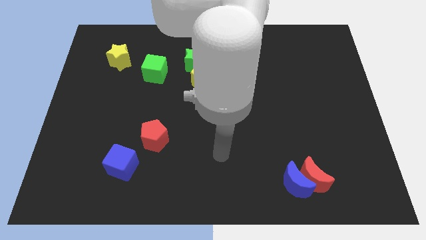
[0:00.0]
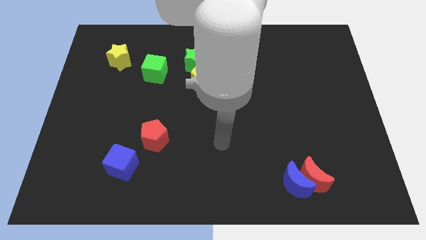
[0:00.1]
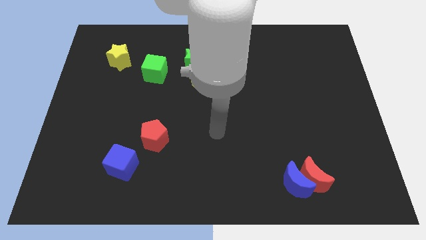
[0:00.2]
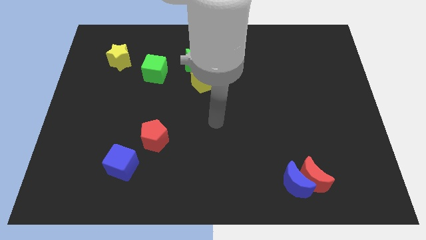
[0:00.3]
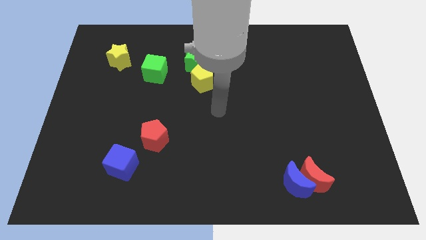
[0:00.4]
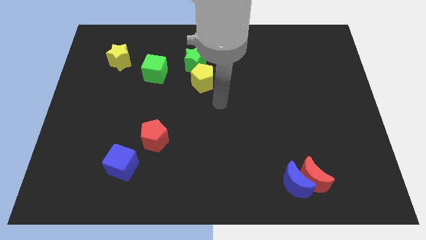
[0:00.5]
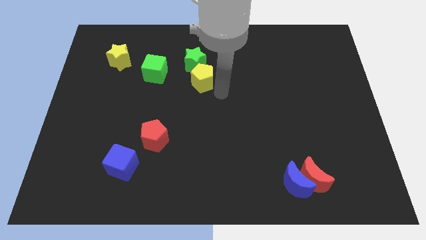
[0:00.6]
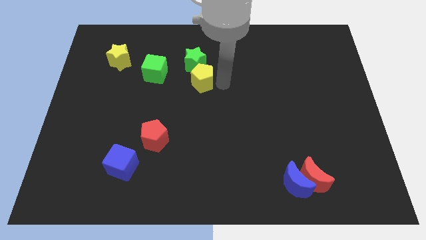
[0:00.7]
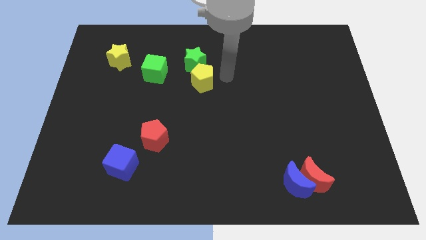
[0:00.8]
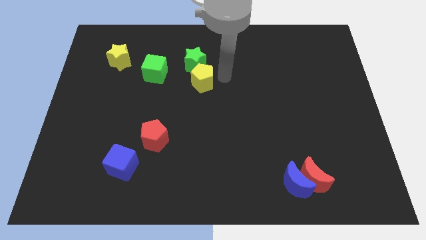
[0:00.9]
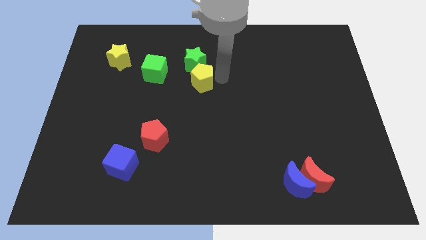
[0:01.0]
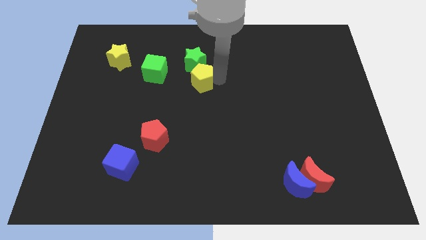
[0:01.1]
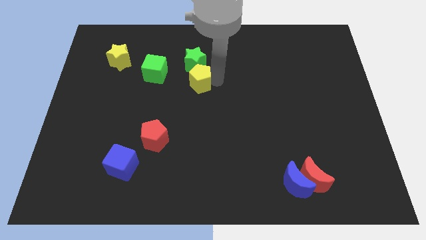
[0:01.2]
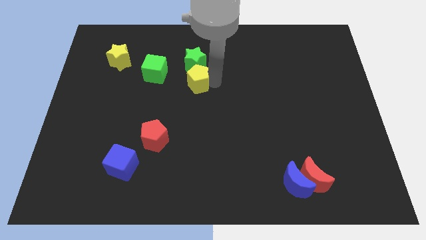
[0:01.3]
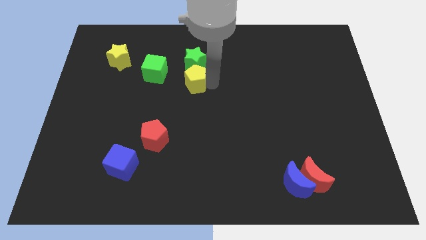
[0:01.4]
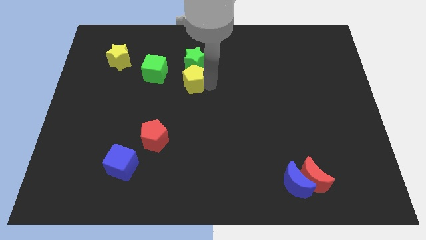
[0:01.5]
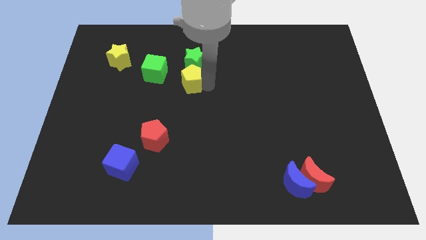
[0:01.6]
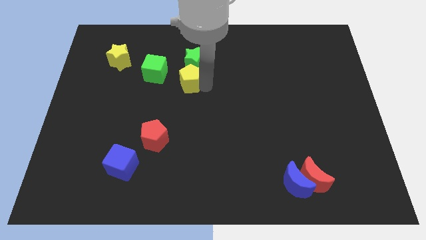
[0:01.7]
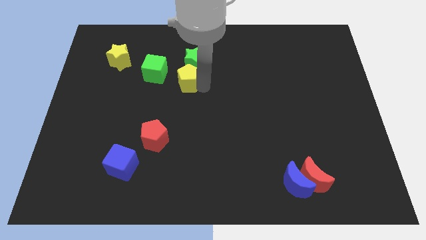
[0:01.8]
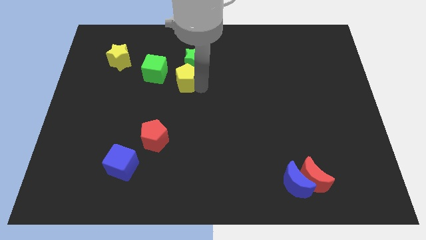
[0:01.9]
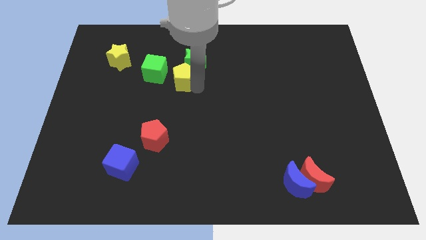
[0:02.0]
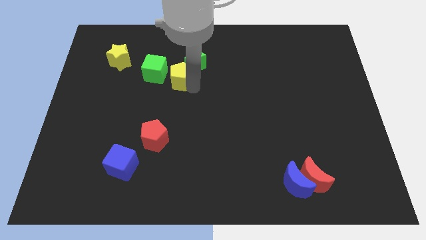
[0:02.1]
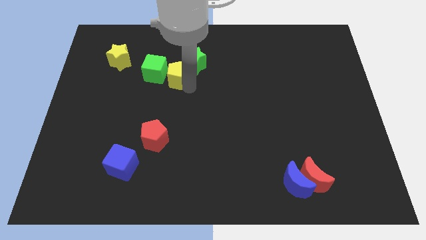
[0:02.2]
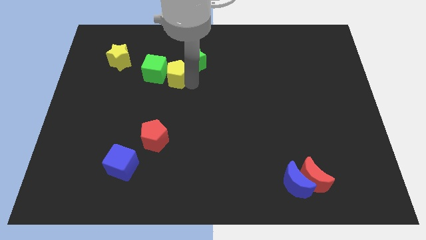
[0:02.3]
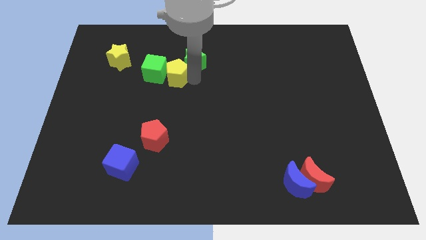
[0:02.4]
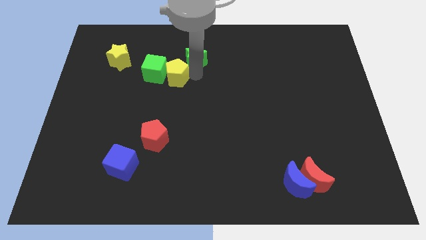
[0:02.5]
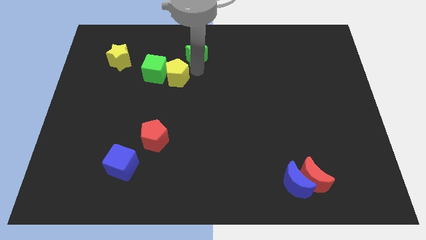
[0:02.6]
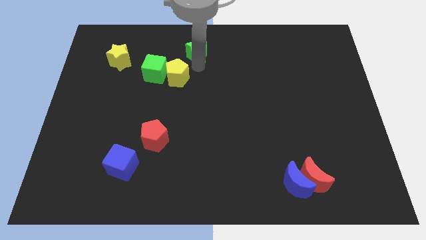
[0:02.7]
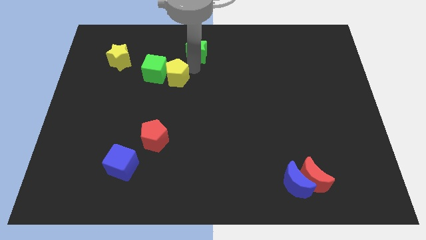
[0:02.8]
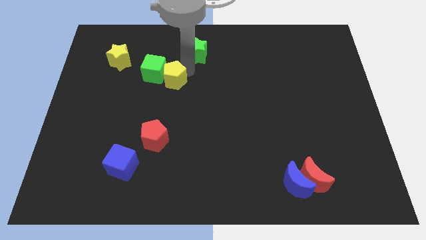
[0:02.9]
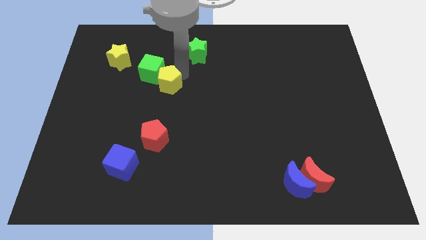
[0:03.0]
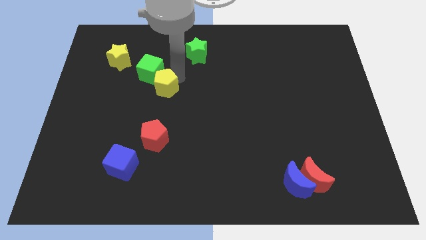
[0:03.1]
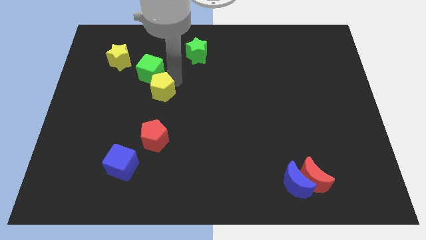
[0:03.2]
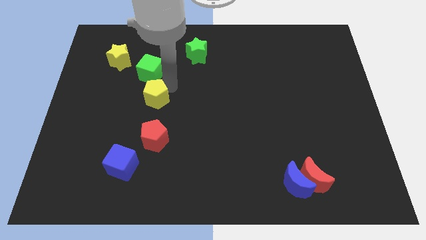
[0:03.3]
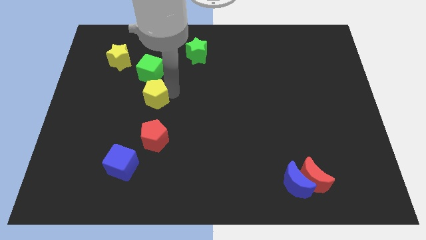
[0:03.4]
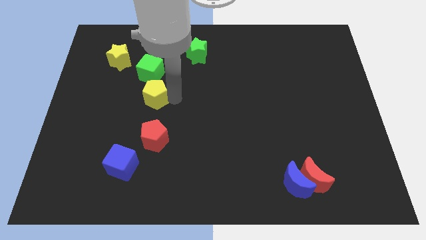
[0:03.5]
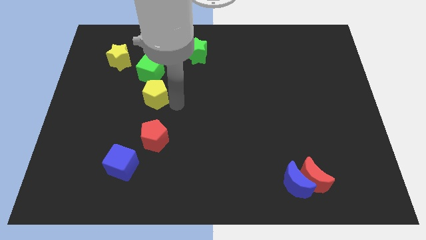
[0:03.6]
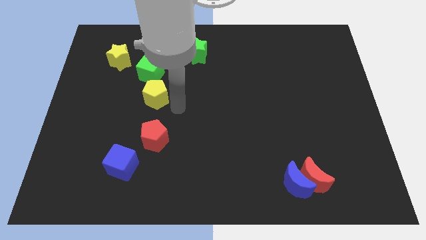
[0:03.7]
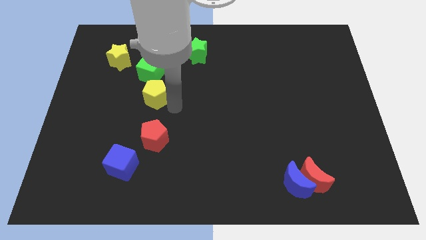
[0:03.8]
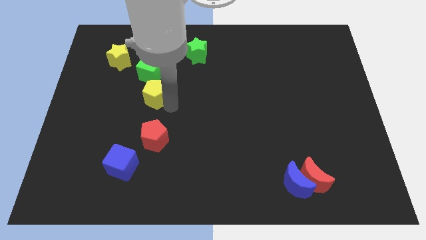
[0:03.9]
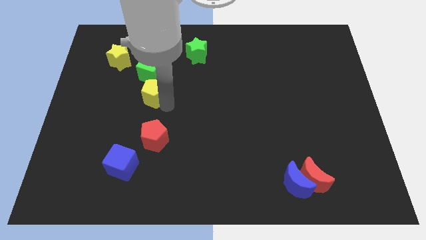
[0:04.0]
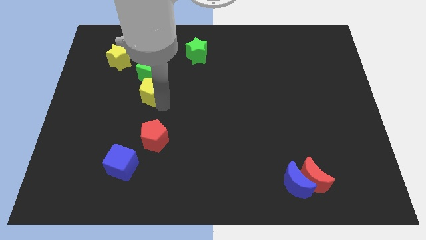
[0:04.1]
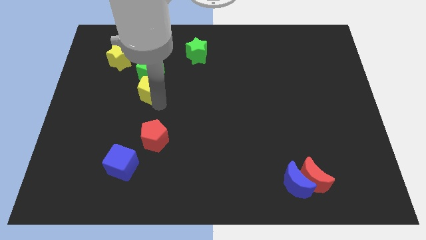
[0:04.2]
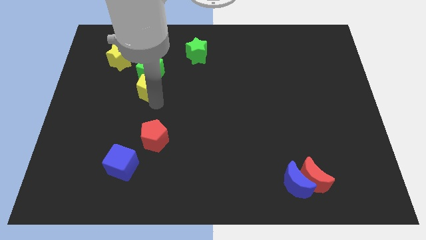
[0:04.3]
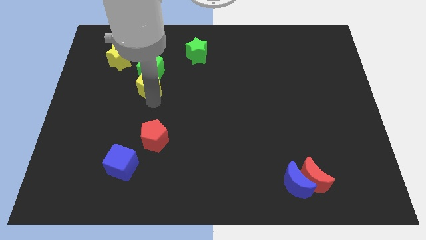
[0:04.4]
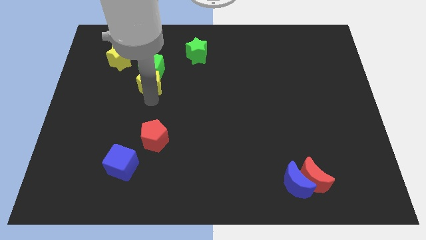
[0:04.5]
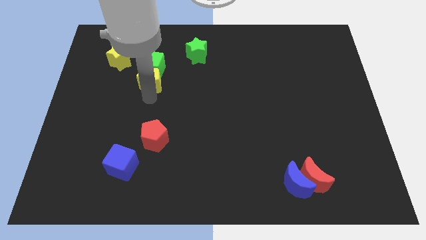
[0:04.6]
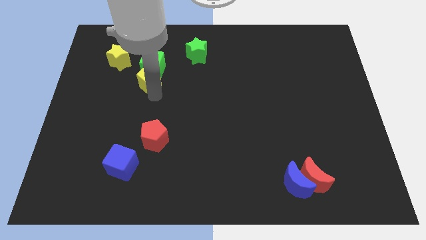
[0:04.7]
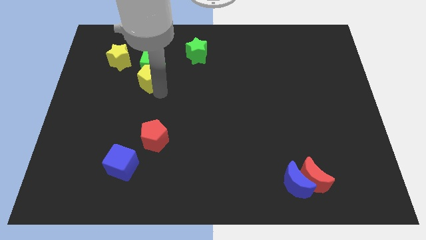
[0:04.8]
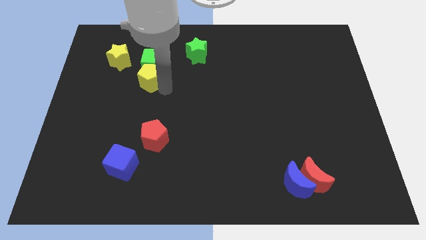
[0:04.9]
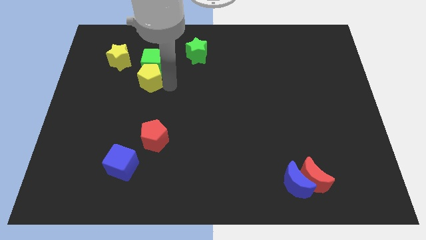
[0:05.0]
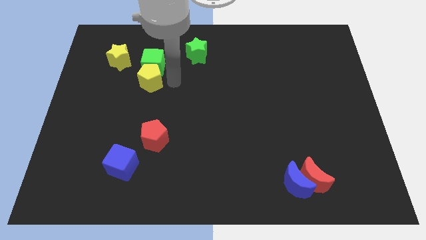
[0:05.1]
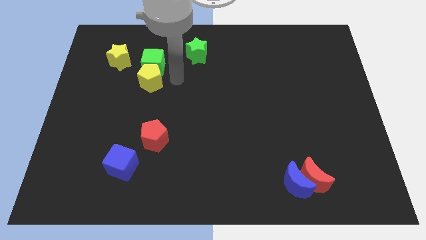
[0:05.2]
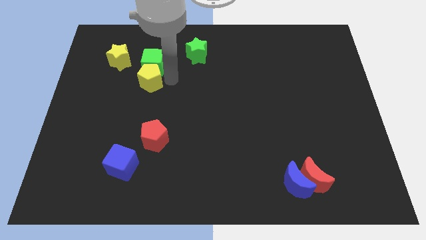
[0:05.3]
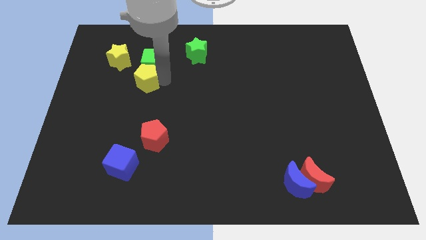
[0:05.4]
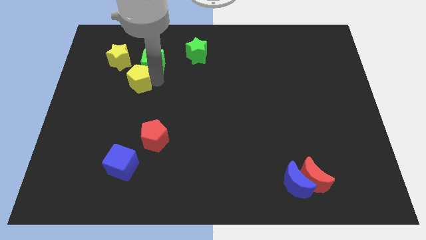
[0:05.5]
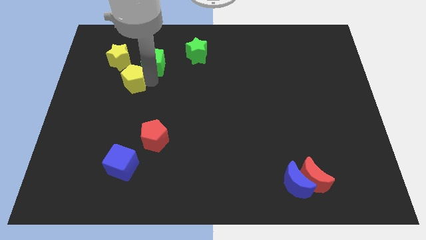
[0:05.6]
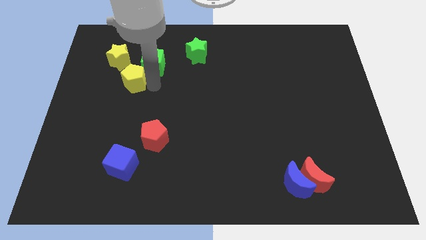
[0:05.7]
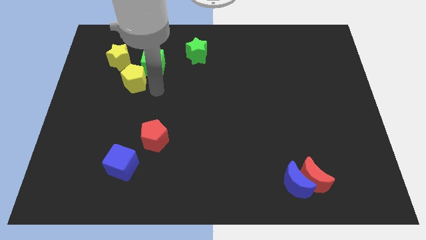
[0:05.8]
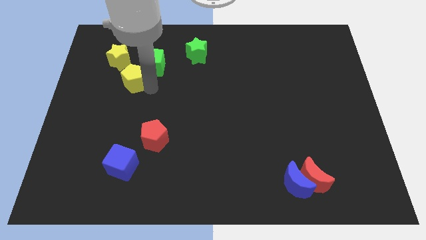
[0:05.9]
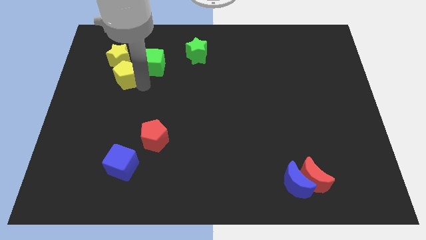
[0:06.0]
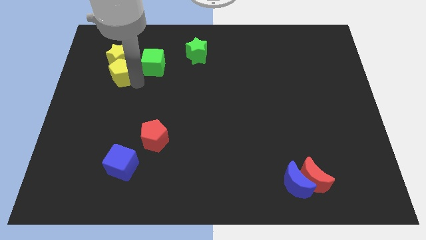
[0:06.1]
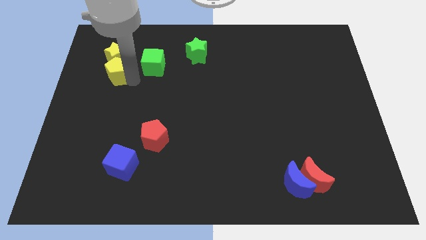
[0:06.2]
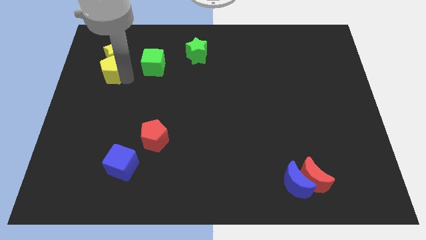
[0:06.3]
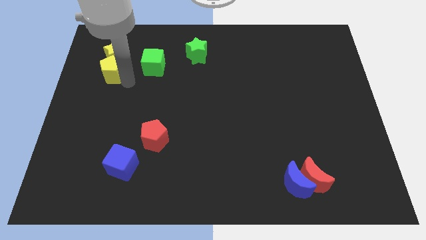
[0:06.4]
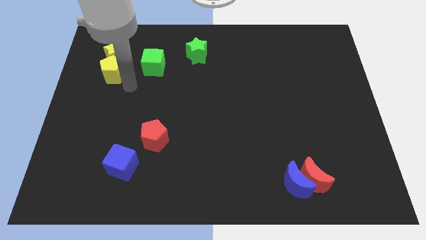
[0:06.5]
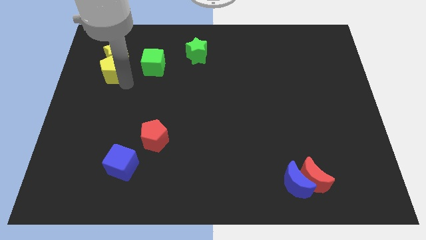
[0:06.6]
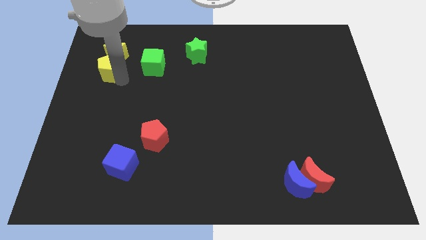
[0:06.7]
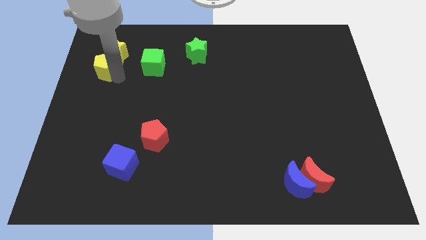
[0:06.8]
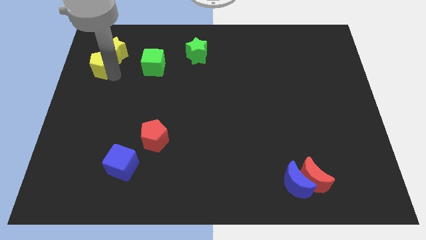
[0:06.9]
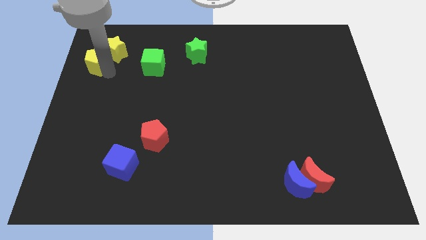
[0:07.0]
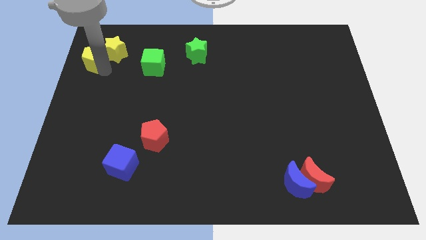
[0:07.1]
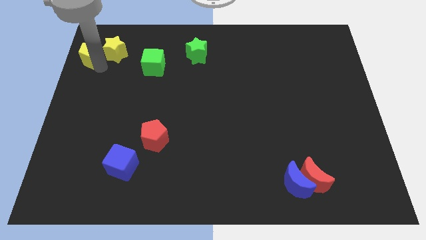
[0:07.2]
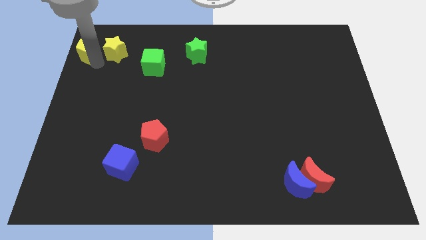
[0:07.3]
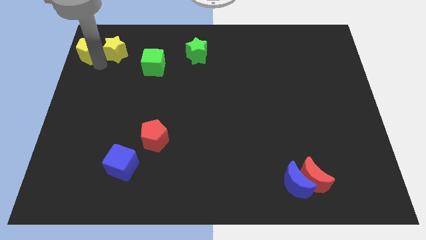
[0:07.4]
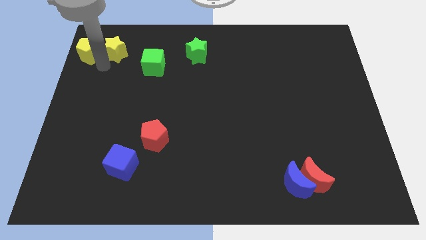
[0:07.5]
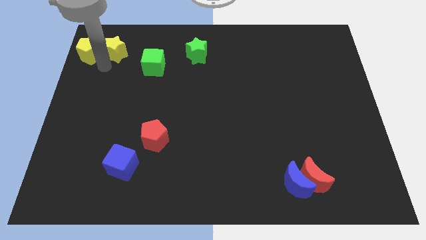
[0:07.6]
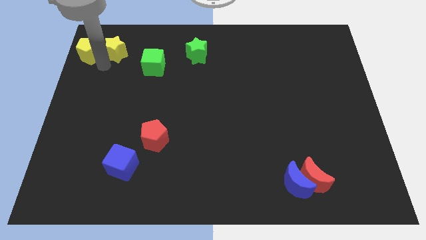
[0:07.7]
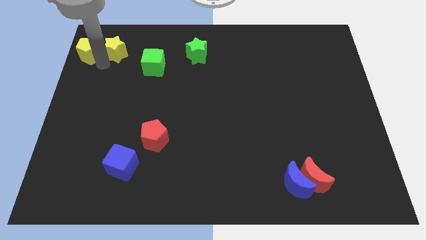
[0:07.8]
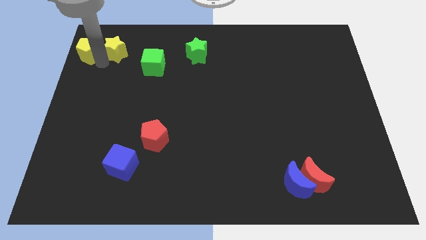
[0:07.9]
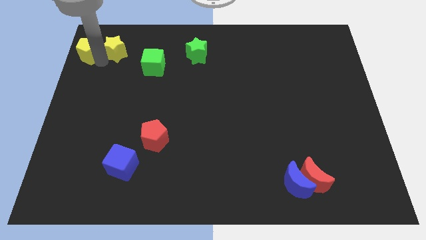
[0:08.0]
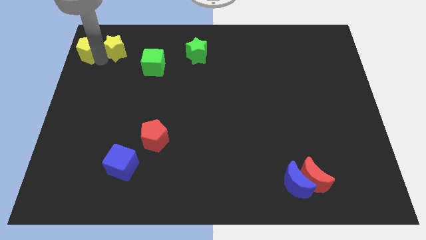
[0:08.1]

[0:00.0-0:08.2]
move the yellow pentagon to the top left of the board
